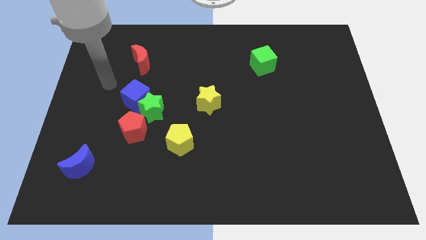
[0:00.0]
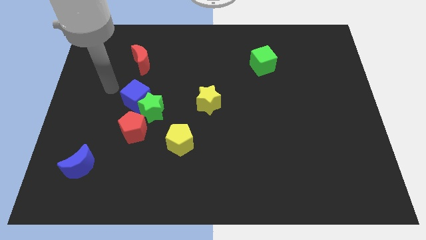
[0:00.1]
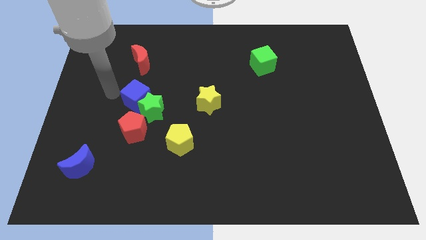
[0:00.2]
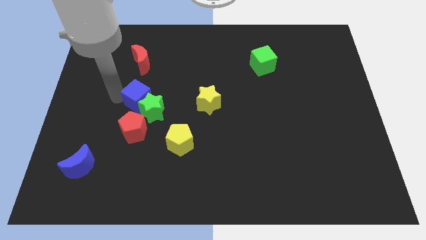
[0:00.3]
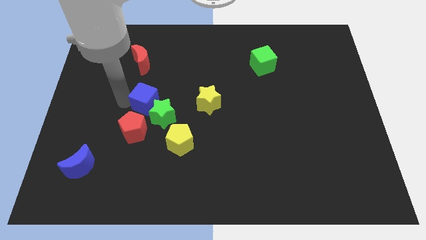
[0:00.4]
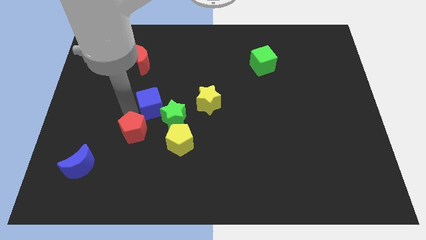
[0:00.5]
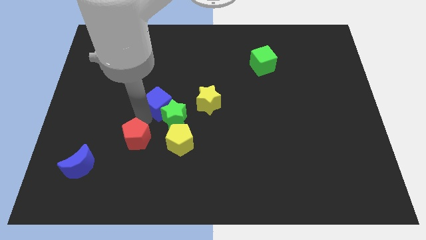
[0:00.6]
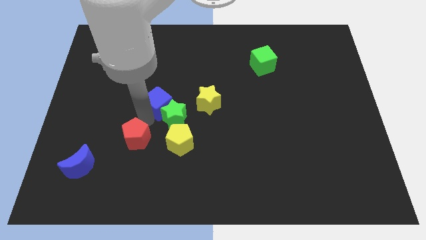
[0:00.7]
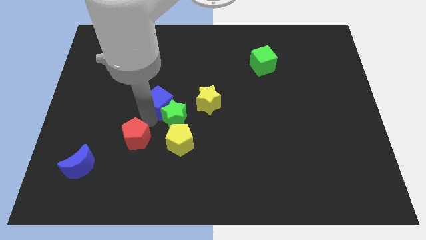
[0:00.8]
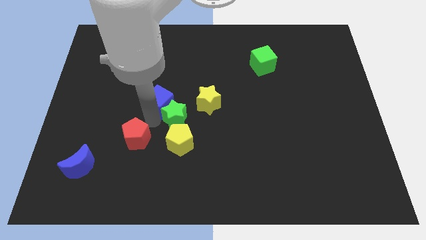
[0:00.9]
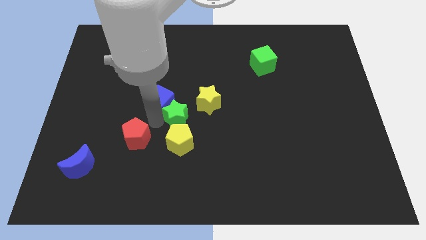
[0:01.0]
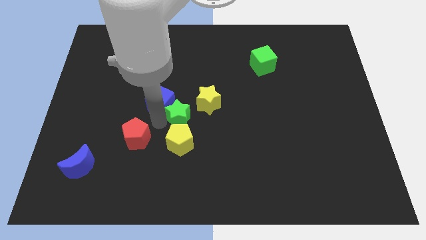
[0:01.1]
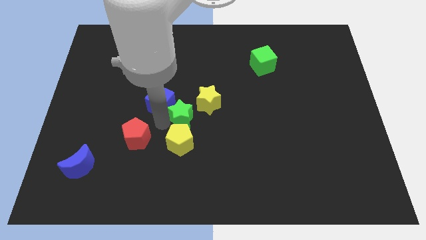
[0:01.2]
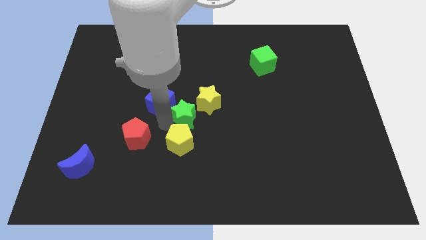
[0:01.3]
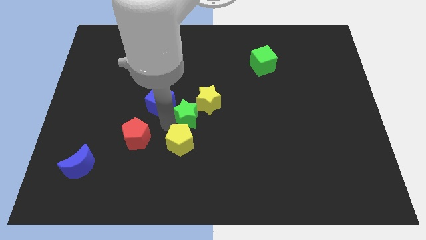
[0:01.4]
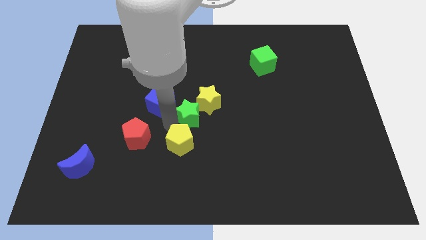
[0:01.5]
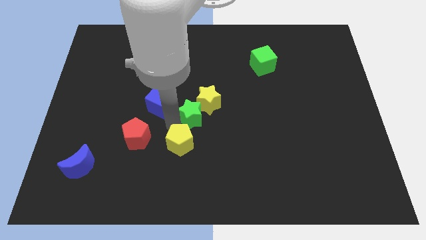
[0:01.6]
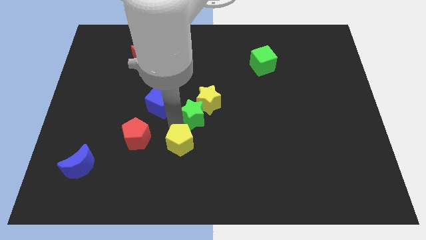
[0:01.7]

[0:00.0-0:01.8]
pull the green star apart from the blue cube and red pentagon

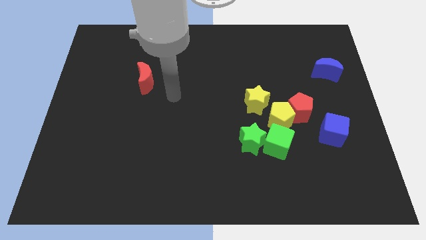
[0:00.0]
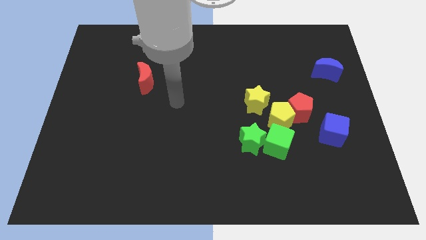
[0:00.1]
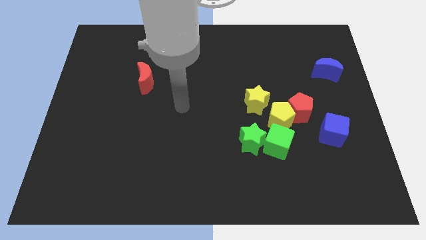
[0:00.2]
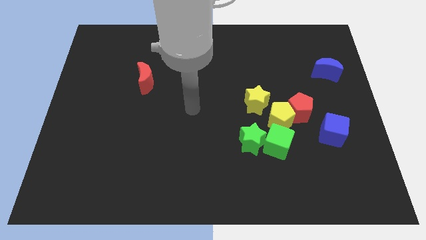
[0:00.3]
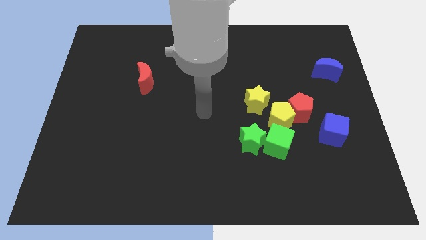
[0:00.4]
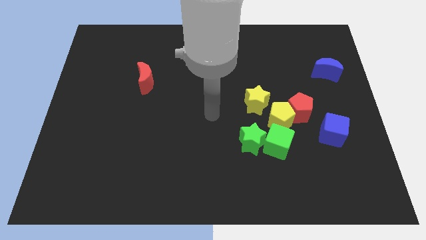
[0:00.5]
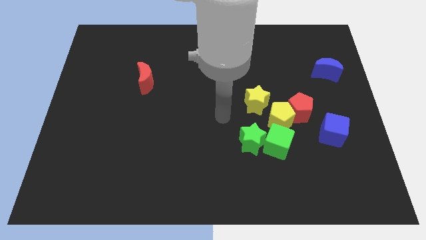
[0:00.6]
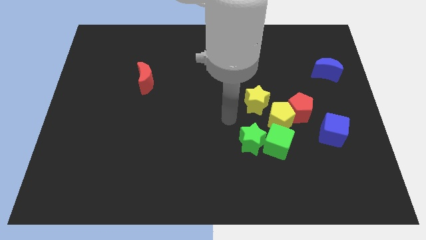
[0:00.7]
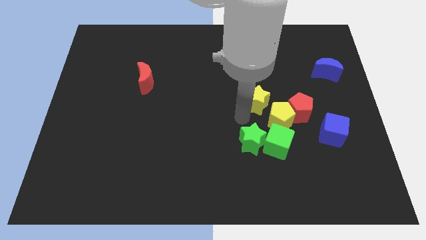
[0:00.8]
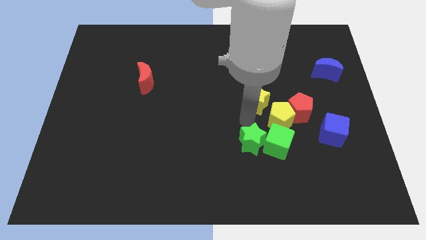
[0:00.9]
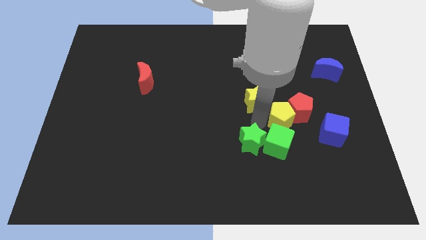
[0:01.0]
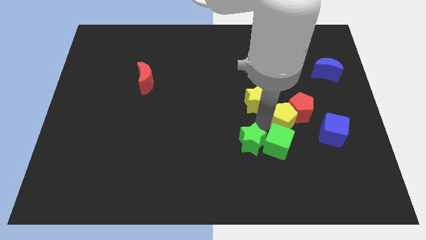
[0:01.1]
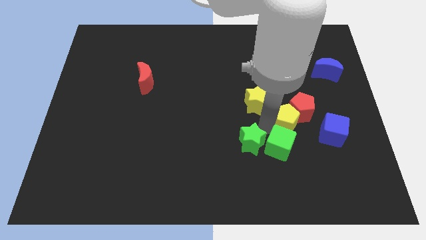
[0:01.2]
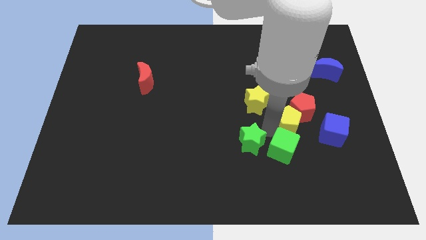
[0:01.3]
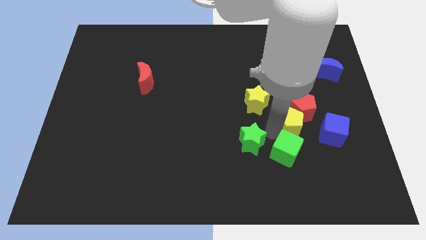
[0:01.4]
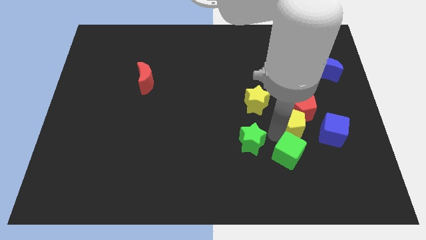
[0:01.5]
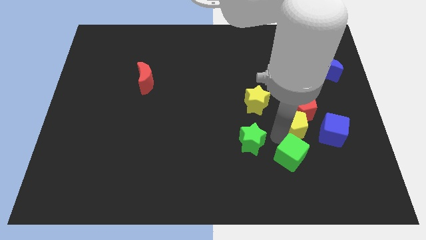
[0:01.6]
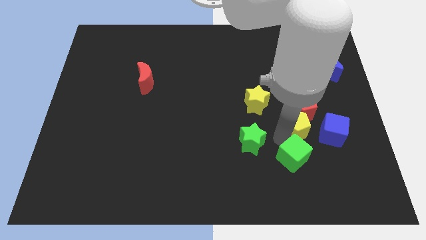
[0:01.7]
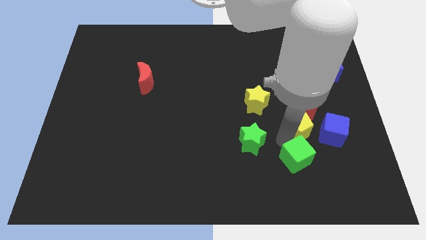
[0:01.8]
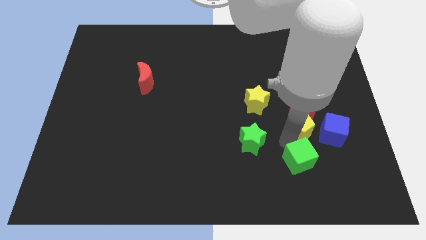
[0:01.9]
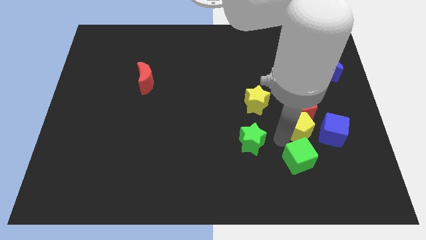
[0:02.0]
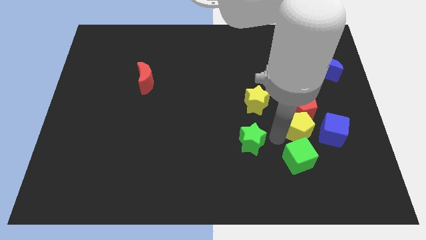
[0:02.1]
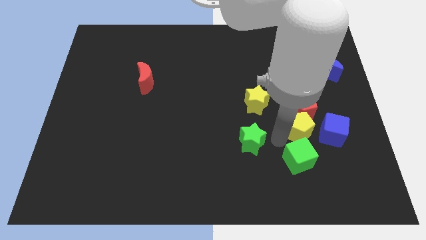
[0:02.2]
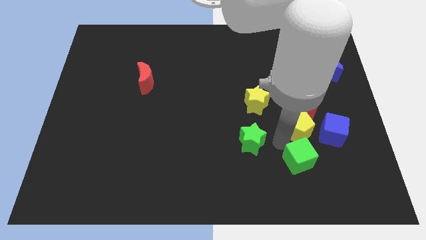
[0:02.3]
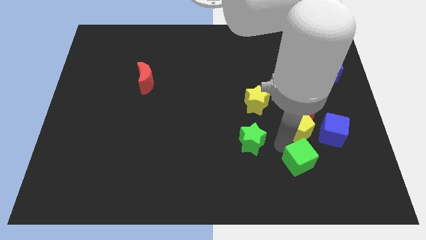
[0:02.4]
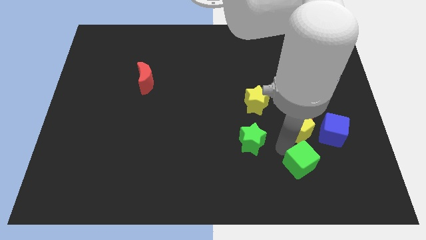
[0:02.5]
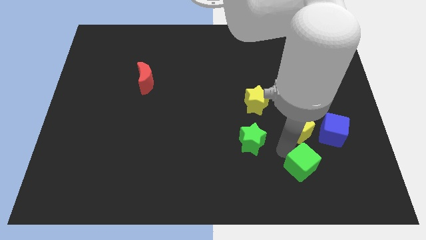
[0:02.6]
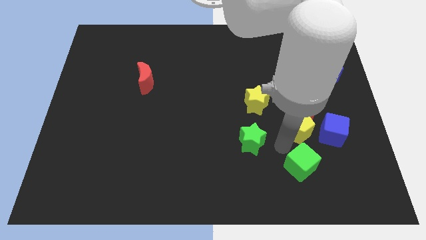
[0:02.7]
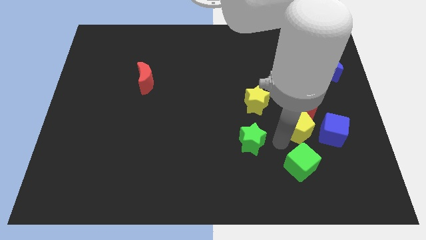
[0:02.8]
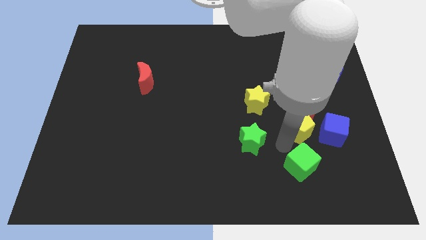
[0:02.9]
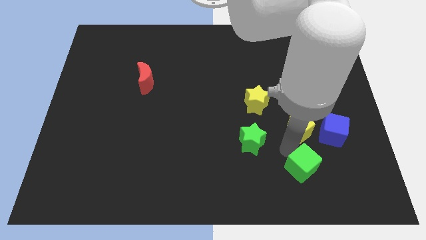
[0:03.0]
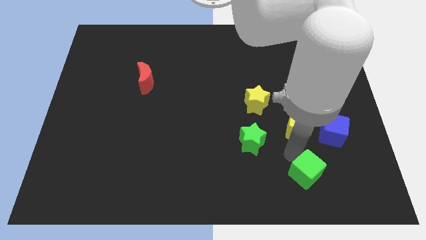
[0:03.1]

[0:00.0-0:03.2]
separate the green cube from the green star and yellow pentagon

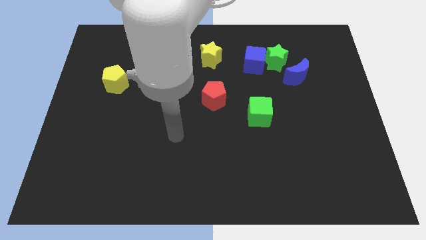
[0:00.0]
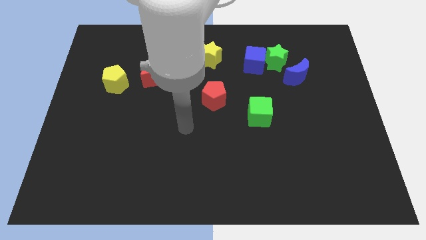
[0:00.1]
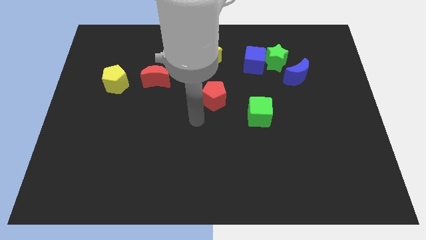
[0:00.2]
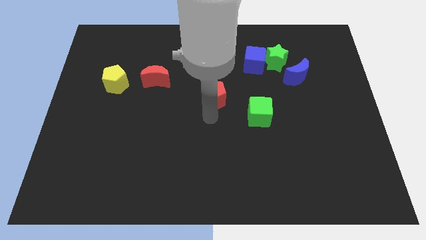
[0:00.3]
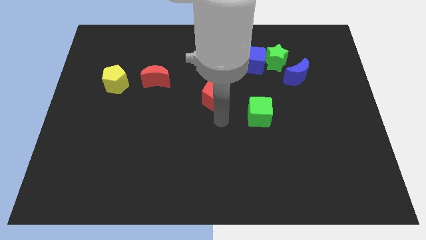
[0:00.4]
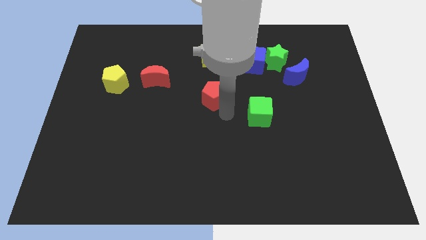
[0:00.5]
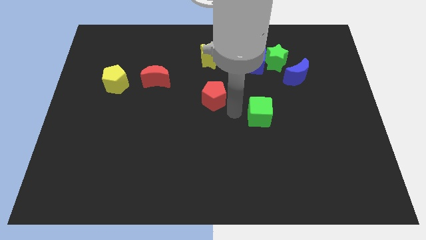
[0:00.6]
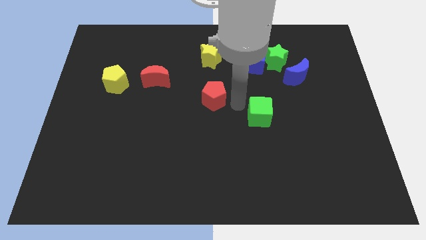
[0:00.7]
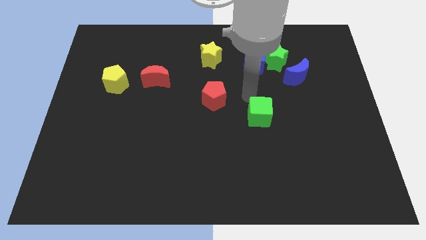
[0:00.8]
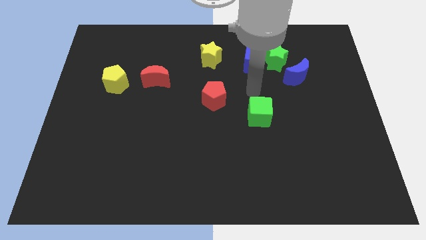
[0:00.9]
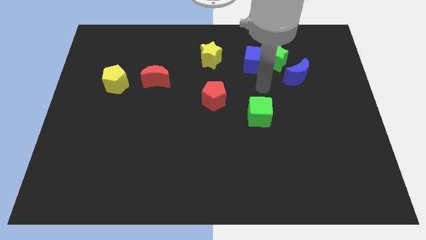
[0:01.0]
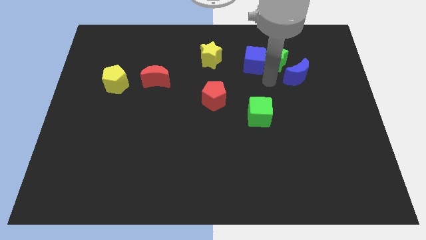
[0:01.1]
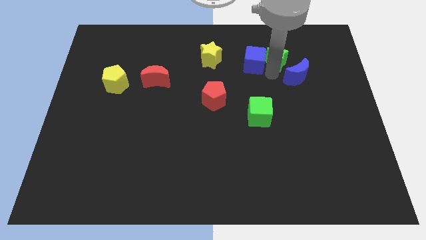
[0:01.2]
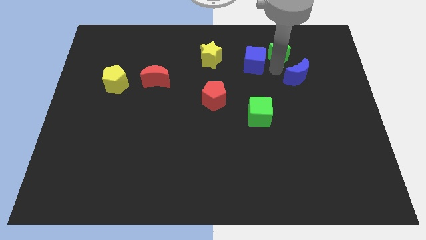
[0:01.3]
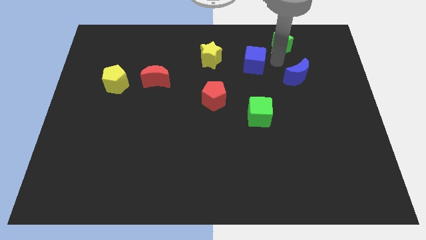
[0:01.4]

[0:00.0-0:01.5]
separate the blue cube from the green star

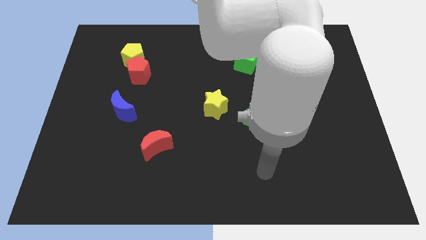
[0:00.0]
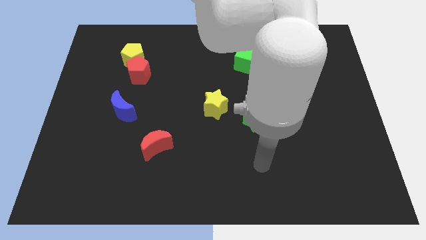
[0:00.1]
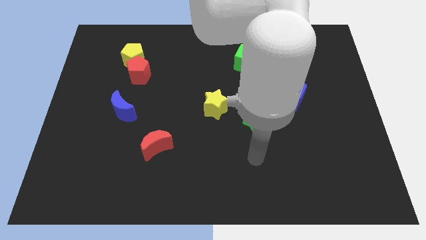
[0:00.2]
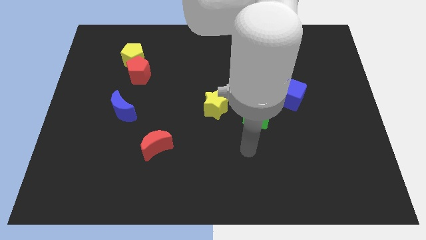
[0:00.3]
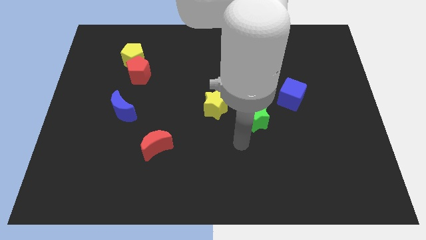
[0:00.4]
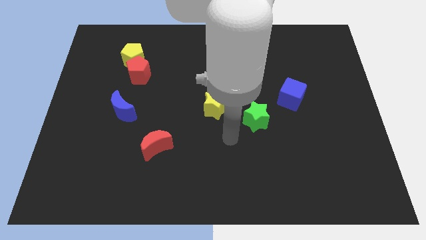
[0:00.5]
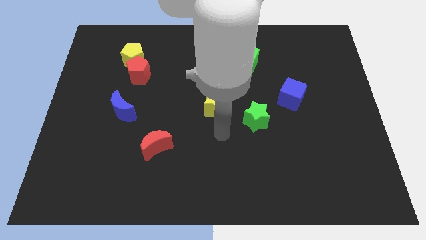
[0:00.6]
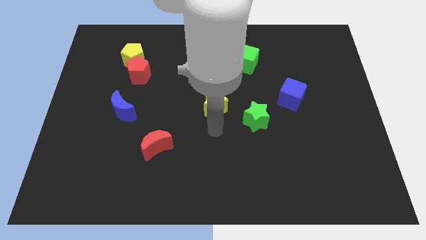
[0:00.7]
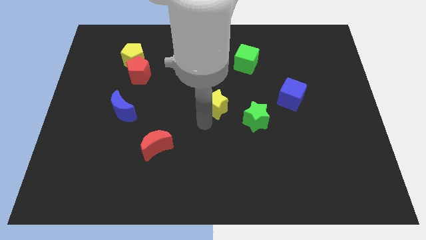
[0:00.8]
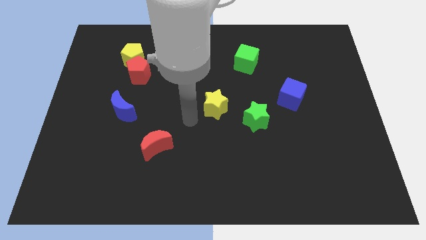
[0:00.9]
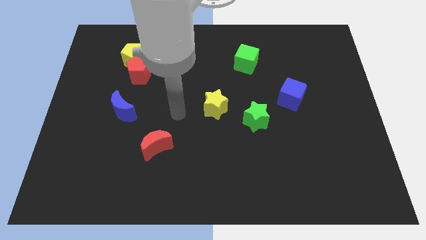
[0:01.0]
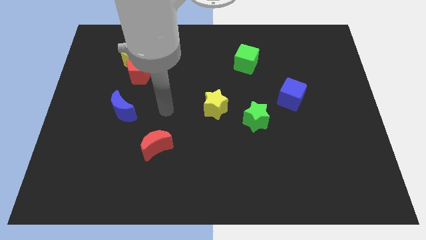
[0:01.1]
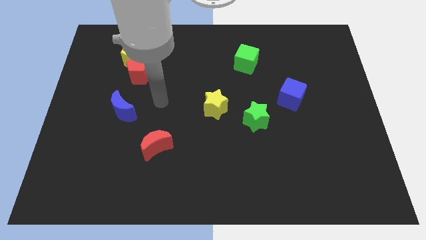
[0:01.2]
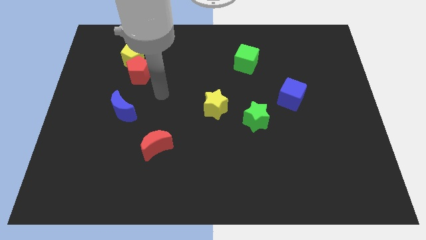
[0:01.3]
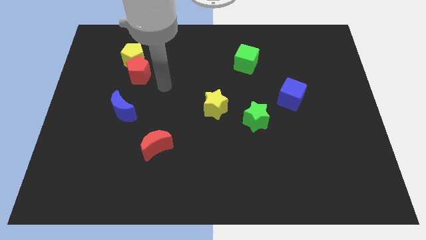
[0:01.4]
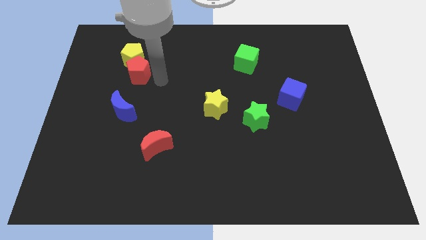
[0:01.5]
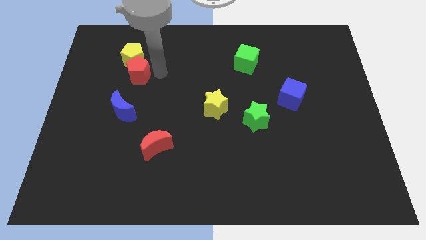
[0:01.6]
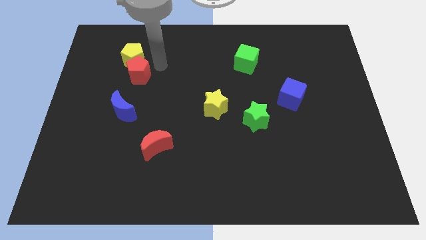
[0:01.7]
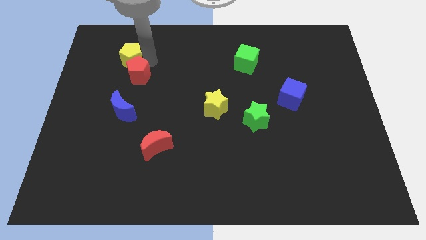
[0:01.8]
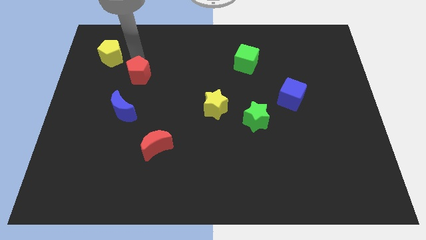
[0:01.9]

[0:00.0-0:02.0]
pull the red pentagon apart from the yellow pentagon

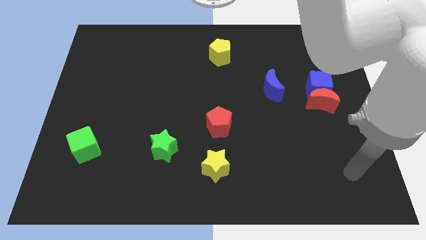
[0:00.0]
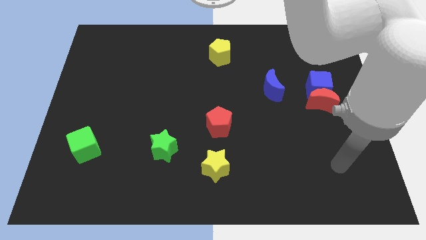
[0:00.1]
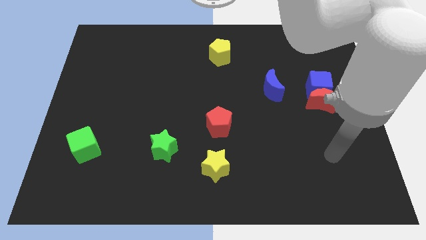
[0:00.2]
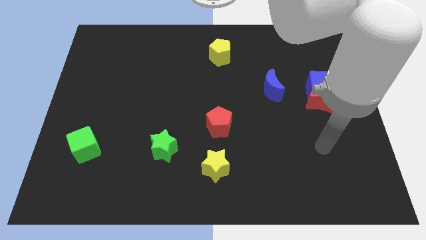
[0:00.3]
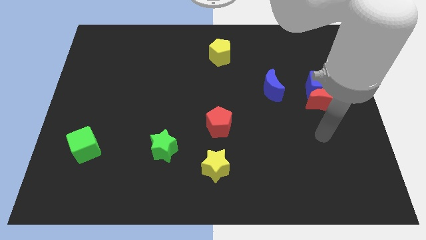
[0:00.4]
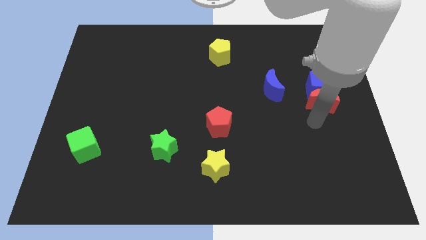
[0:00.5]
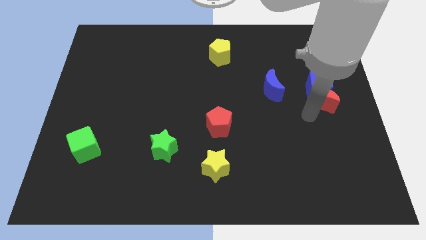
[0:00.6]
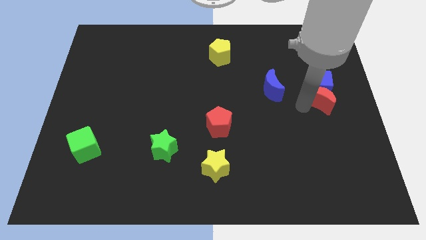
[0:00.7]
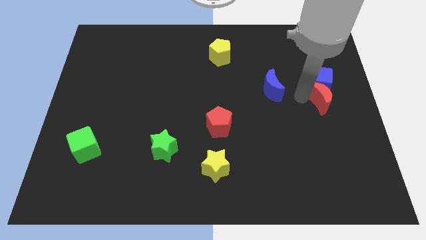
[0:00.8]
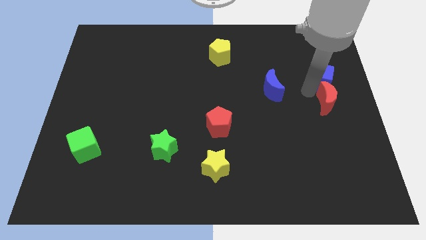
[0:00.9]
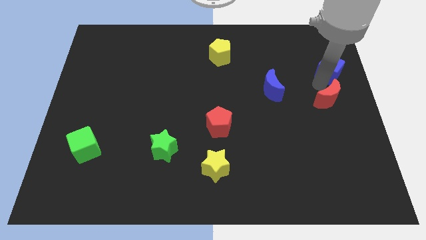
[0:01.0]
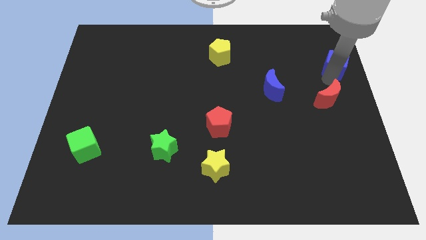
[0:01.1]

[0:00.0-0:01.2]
separate the red moon from the blue cube
